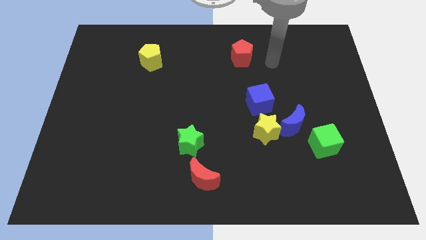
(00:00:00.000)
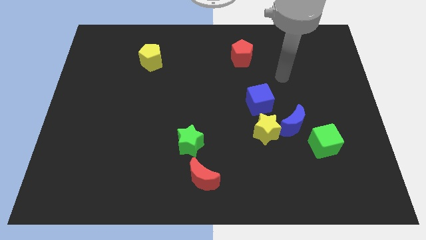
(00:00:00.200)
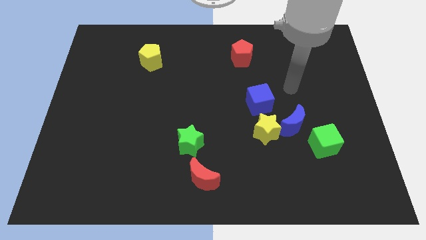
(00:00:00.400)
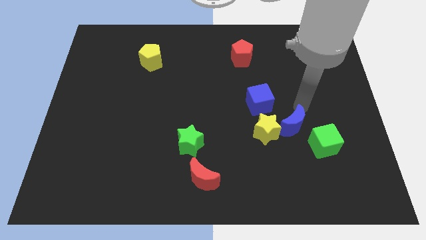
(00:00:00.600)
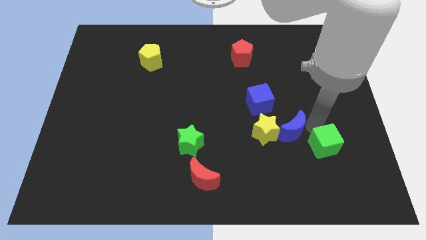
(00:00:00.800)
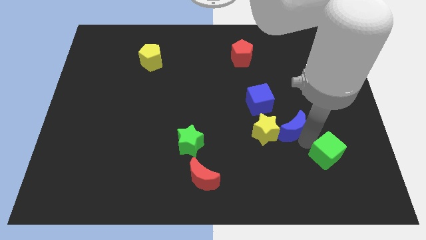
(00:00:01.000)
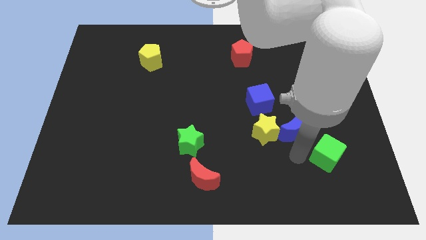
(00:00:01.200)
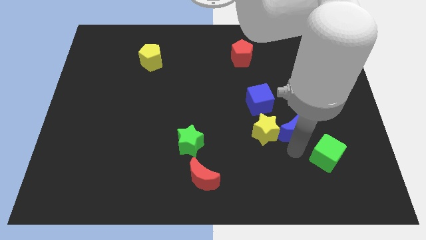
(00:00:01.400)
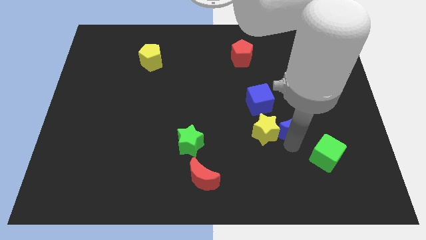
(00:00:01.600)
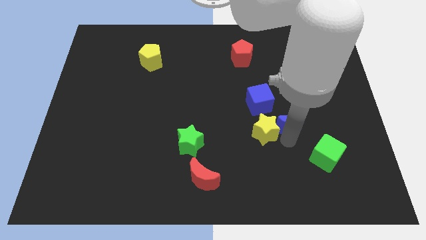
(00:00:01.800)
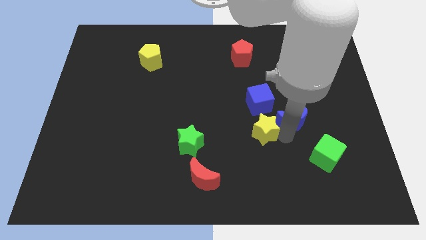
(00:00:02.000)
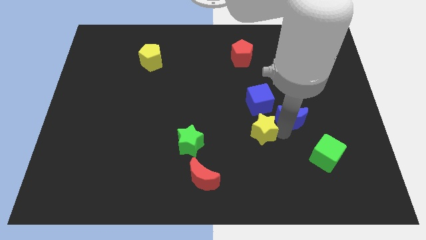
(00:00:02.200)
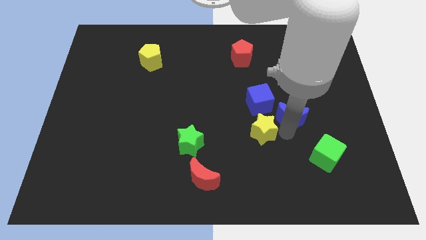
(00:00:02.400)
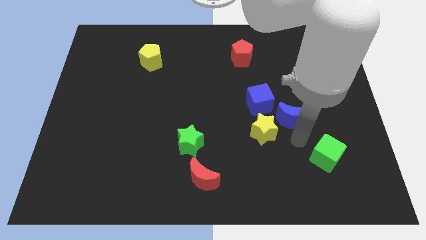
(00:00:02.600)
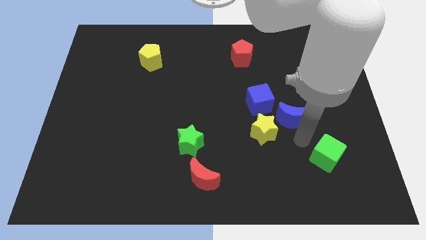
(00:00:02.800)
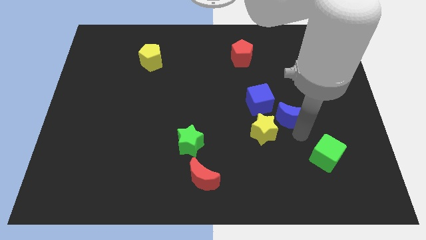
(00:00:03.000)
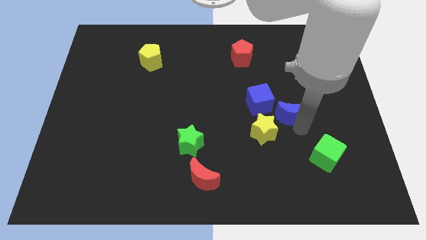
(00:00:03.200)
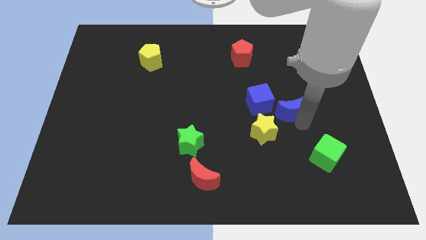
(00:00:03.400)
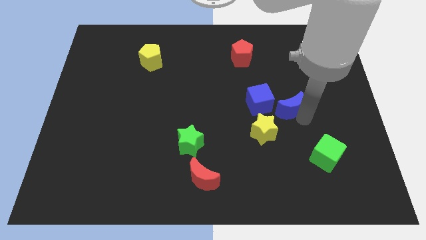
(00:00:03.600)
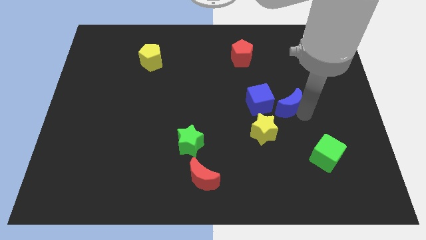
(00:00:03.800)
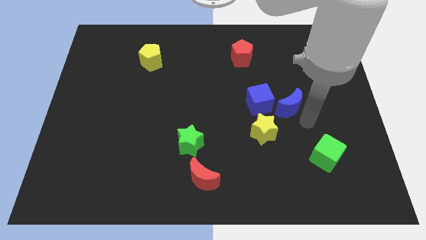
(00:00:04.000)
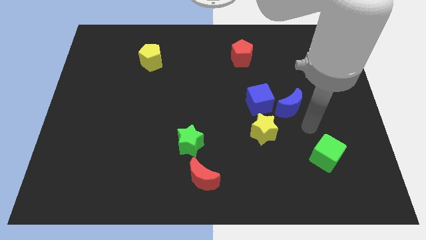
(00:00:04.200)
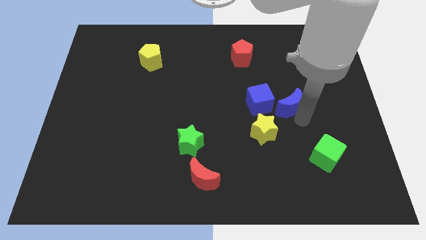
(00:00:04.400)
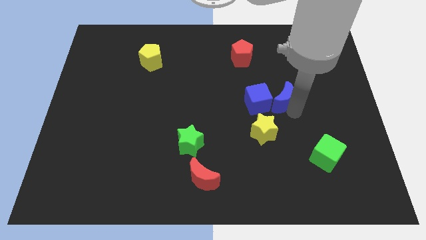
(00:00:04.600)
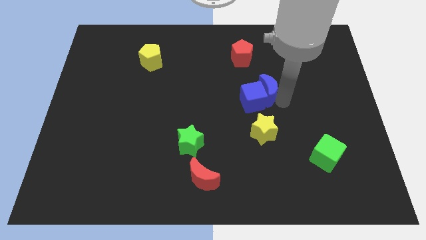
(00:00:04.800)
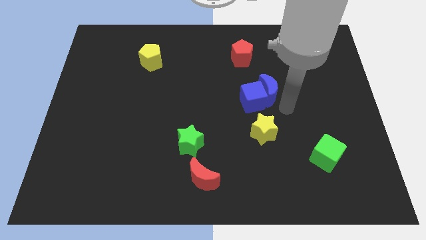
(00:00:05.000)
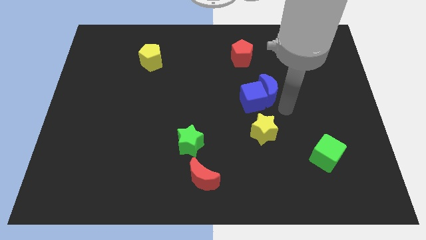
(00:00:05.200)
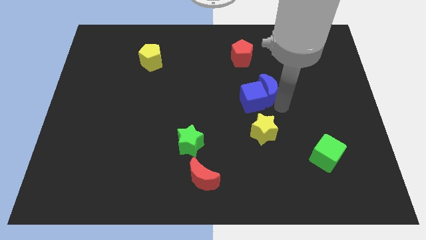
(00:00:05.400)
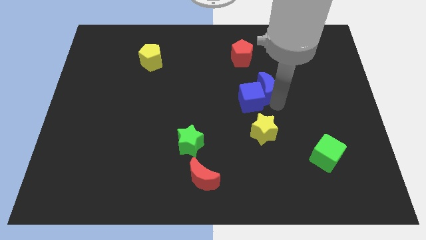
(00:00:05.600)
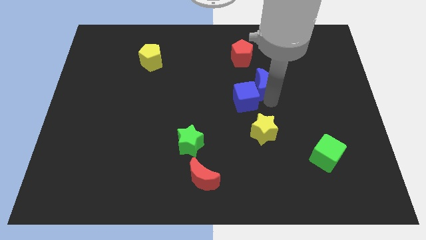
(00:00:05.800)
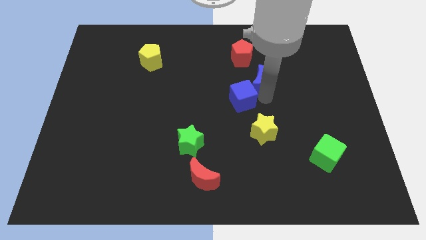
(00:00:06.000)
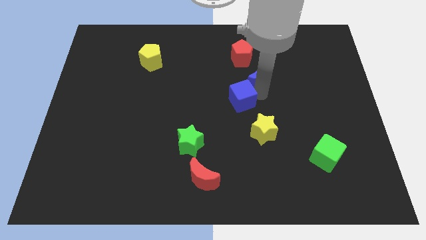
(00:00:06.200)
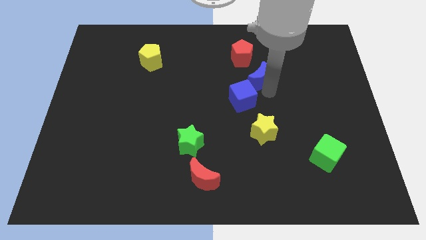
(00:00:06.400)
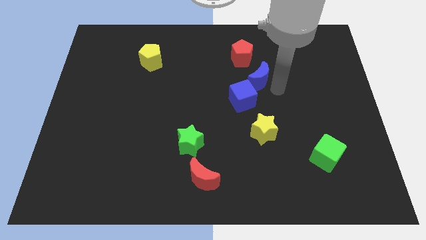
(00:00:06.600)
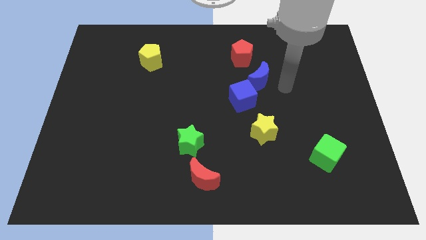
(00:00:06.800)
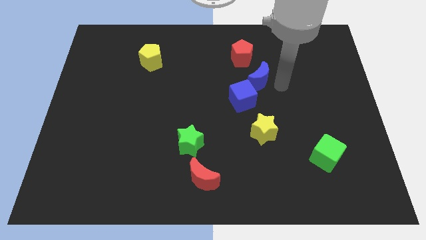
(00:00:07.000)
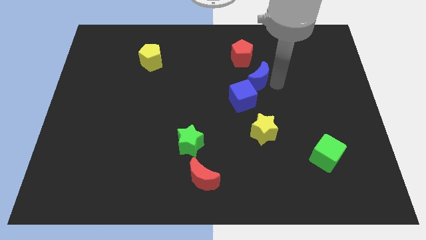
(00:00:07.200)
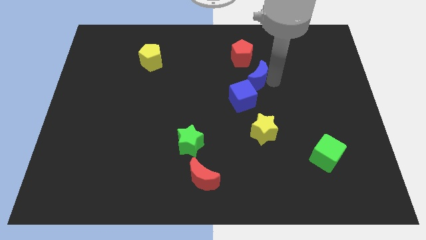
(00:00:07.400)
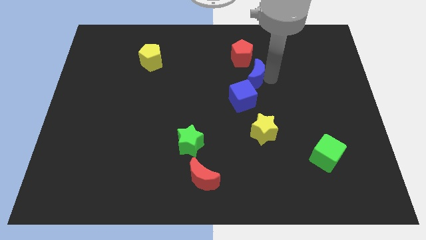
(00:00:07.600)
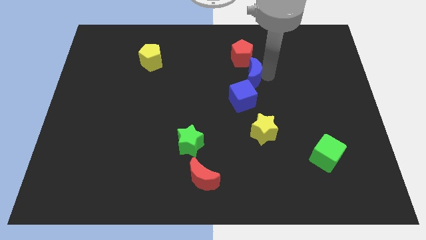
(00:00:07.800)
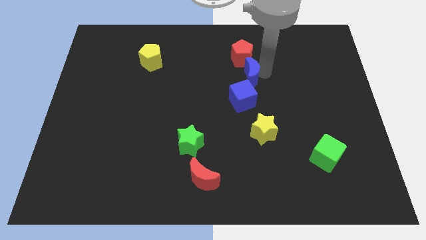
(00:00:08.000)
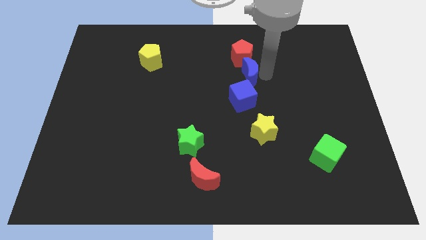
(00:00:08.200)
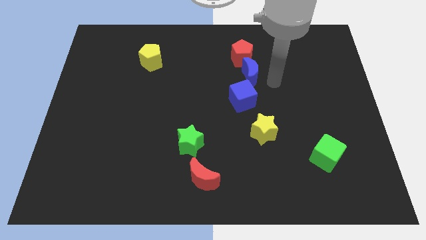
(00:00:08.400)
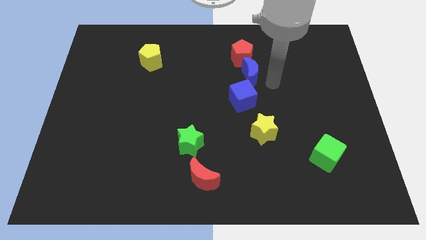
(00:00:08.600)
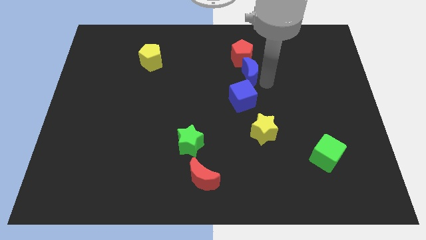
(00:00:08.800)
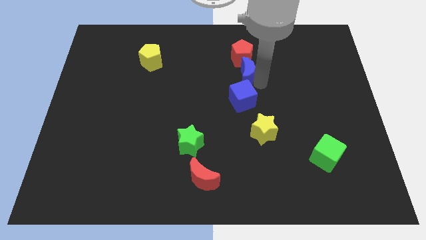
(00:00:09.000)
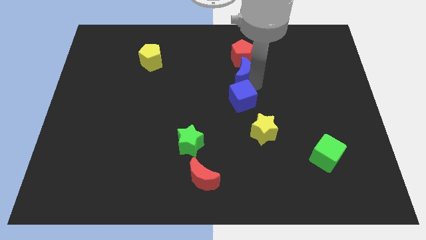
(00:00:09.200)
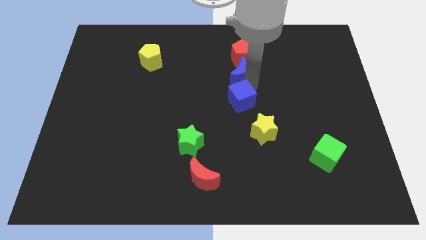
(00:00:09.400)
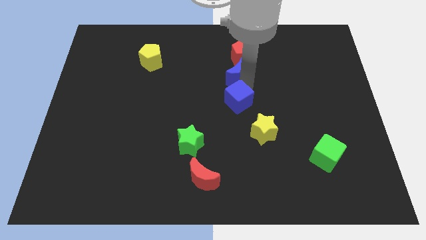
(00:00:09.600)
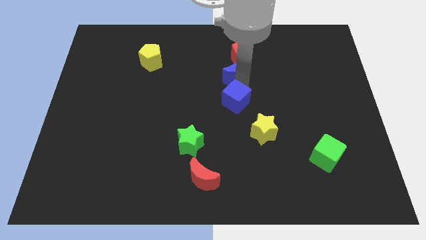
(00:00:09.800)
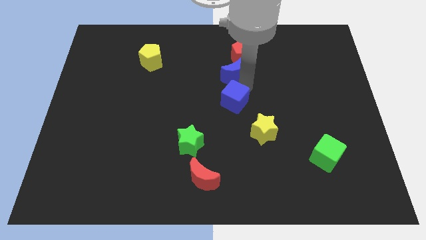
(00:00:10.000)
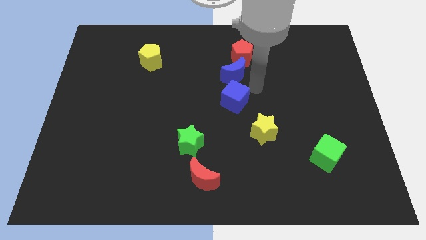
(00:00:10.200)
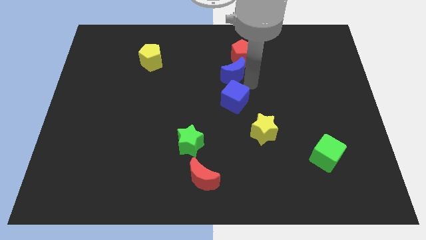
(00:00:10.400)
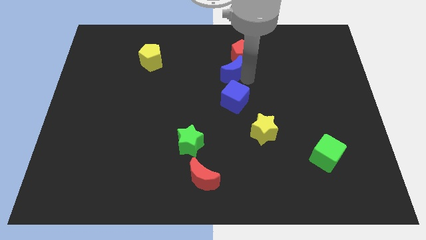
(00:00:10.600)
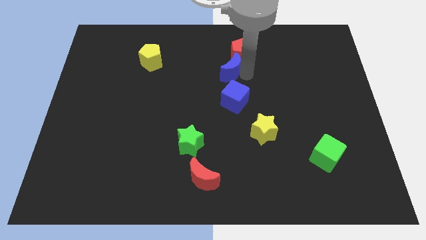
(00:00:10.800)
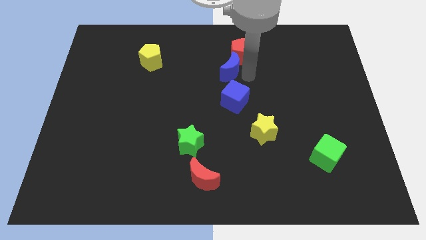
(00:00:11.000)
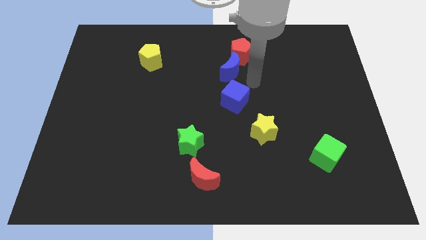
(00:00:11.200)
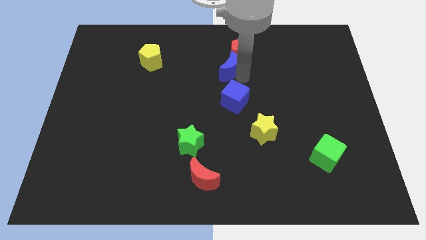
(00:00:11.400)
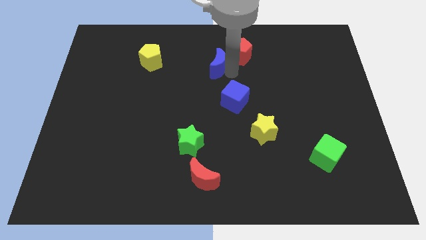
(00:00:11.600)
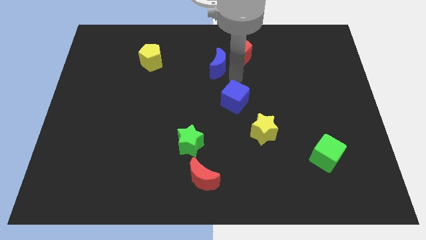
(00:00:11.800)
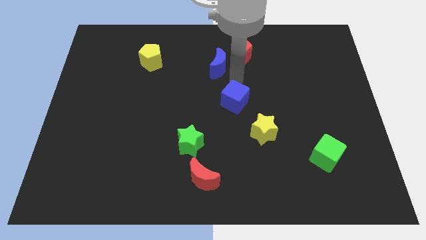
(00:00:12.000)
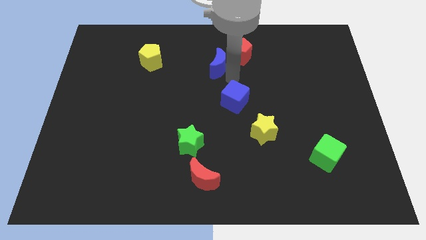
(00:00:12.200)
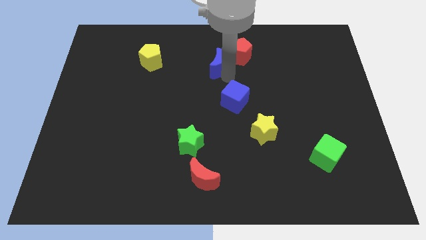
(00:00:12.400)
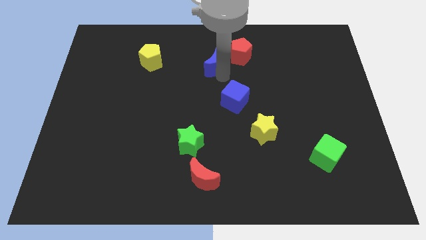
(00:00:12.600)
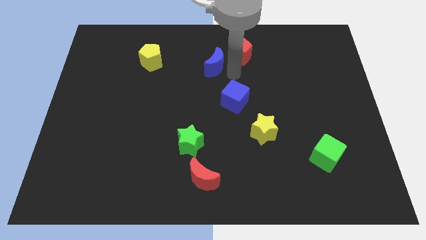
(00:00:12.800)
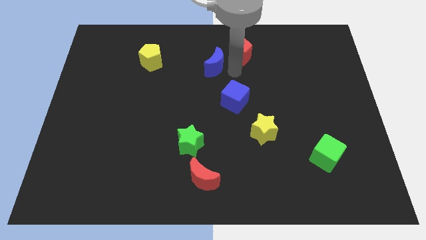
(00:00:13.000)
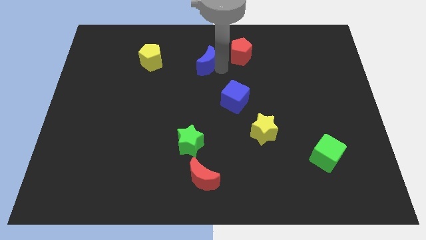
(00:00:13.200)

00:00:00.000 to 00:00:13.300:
put the blue moon to the right side of the yellow pentagon
